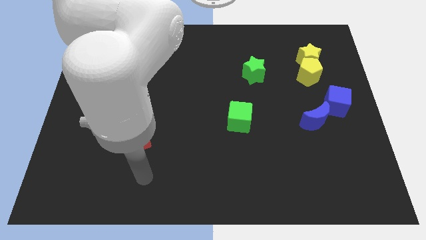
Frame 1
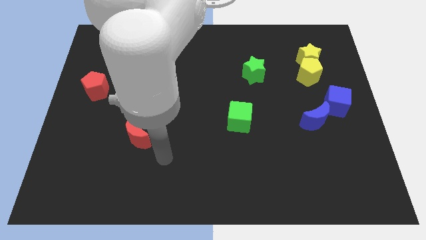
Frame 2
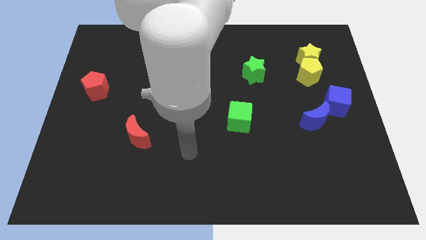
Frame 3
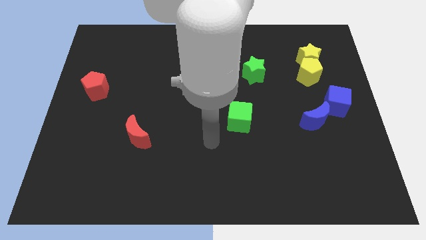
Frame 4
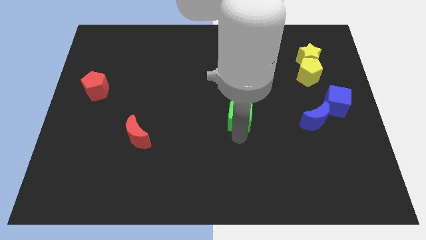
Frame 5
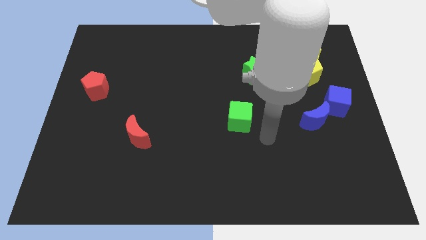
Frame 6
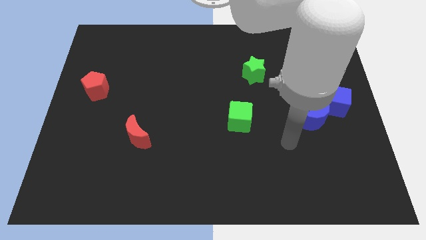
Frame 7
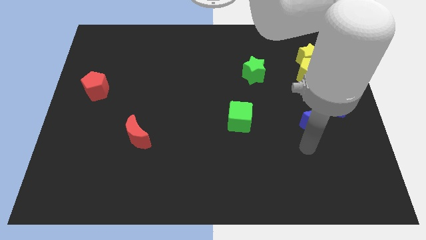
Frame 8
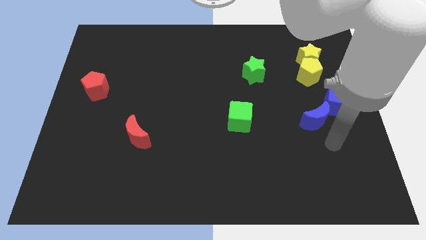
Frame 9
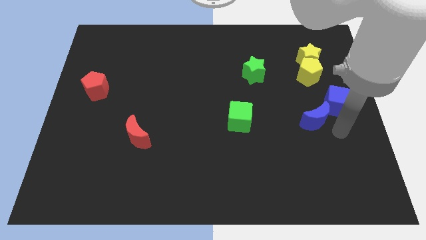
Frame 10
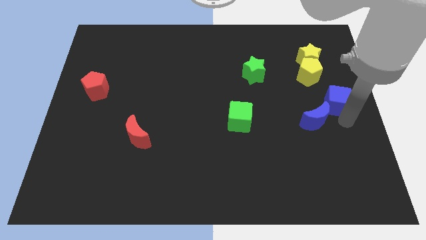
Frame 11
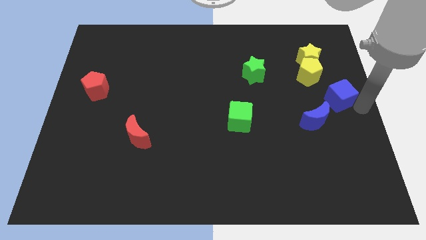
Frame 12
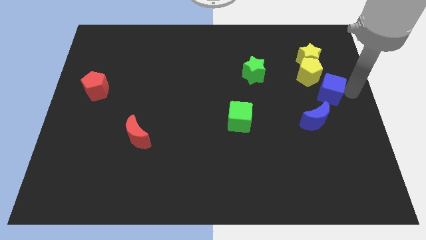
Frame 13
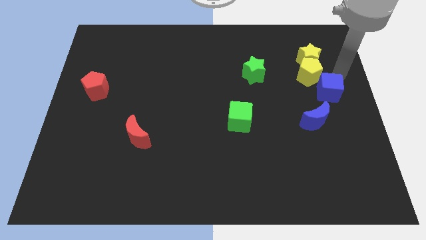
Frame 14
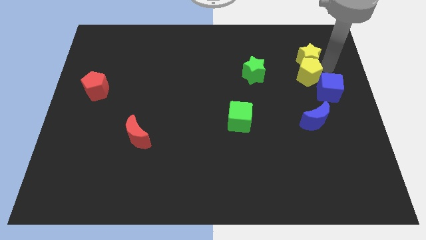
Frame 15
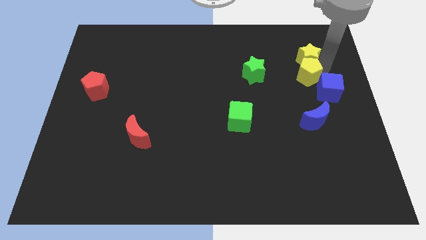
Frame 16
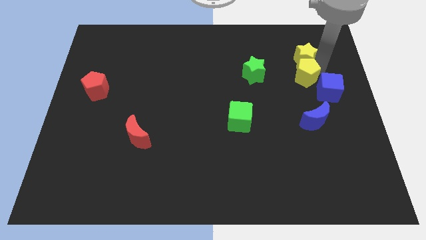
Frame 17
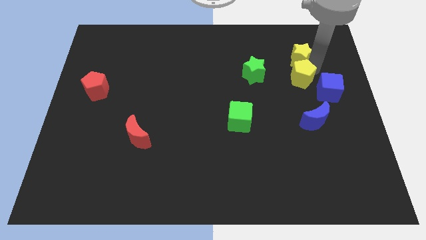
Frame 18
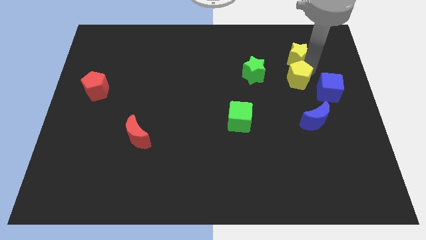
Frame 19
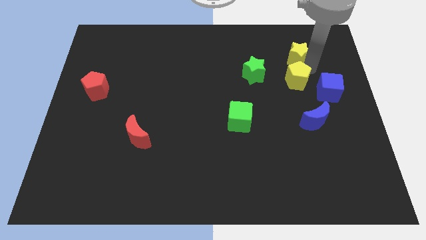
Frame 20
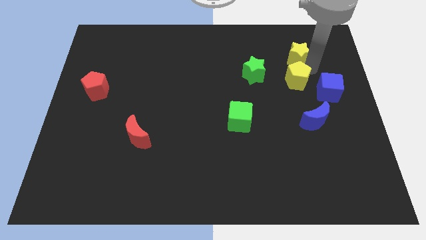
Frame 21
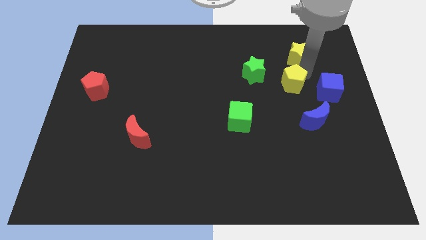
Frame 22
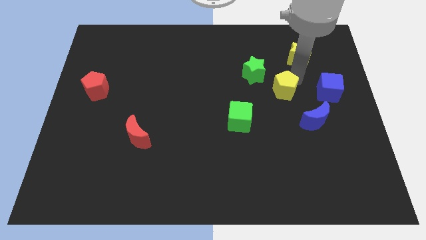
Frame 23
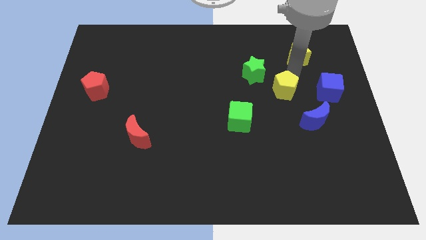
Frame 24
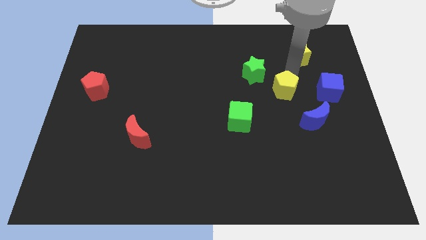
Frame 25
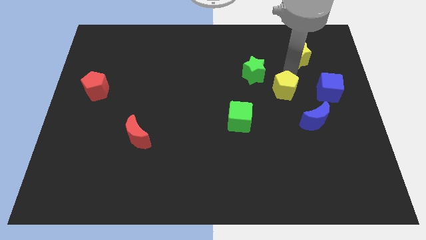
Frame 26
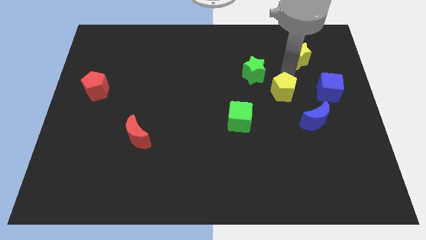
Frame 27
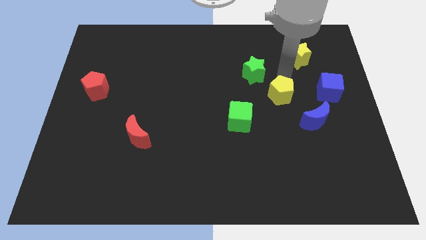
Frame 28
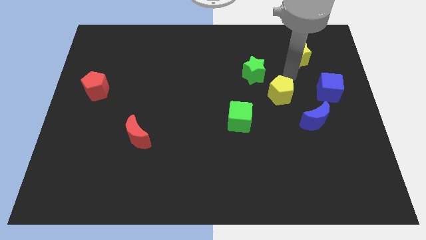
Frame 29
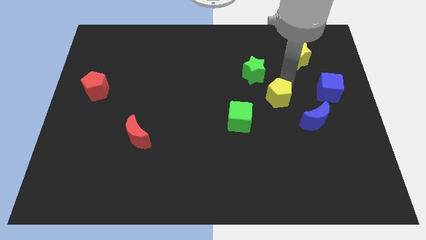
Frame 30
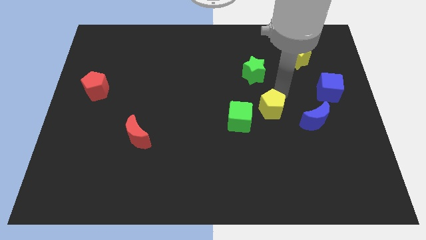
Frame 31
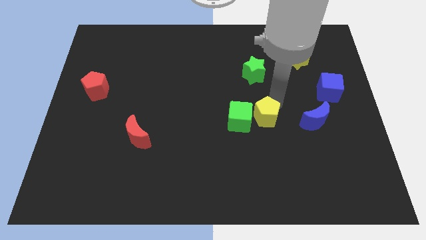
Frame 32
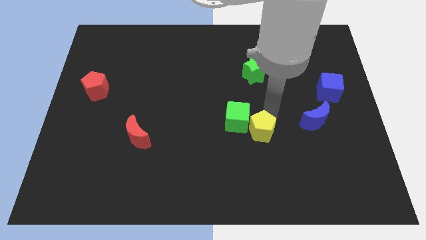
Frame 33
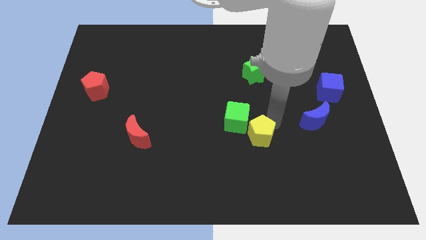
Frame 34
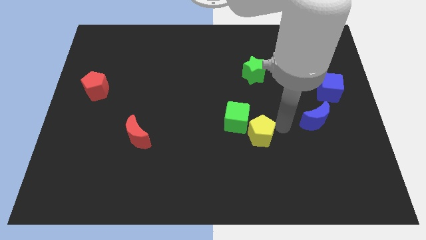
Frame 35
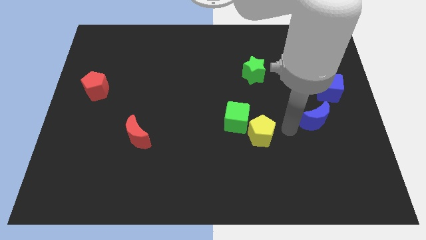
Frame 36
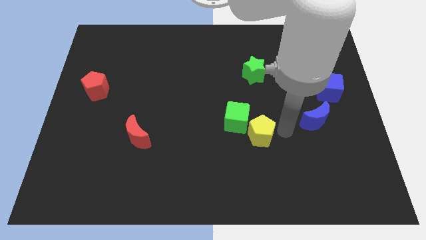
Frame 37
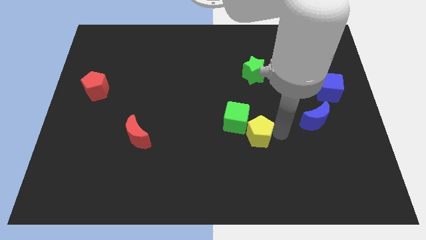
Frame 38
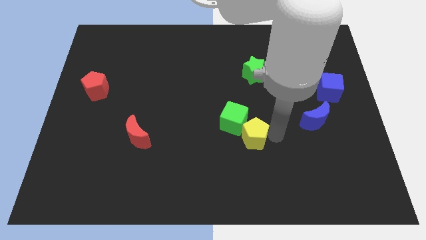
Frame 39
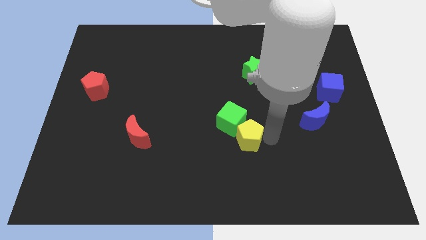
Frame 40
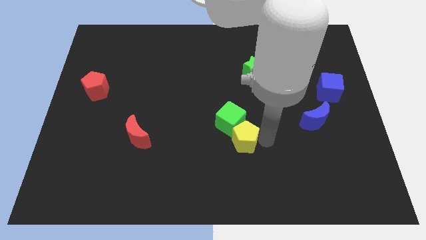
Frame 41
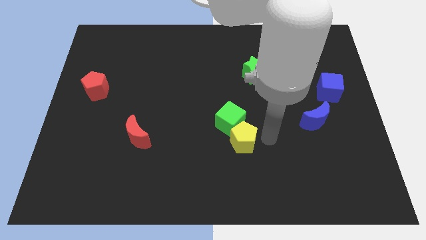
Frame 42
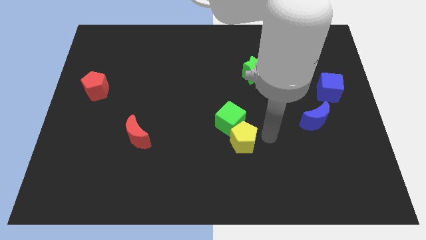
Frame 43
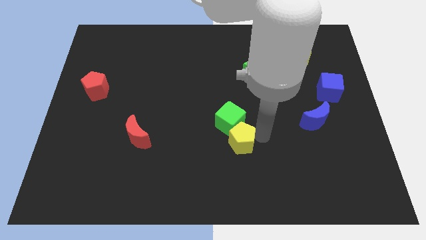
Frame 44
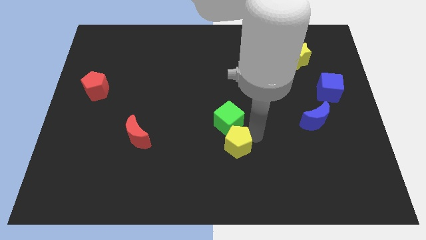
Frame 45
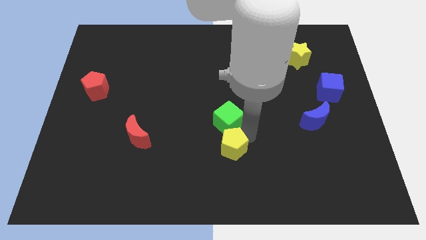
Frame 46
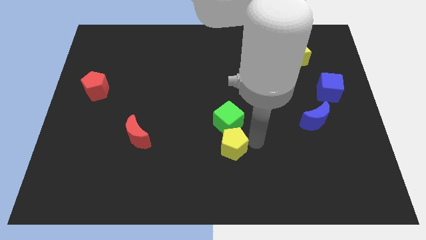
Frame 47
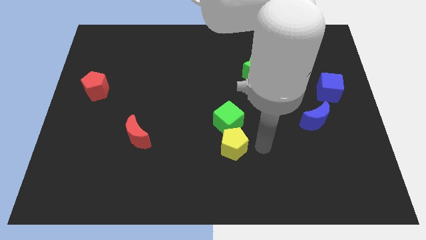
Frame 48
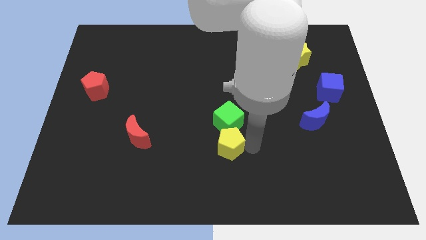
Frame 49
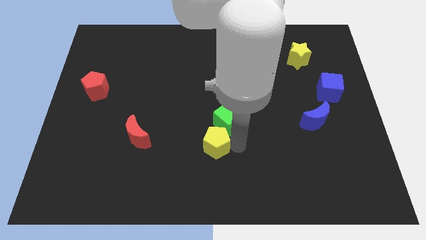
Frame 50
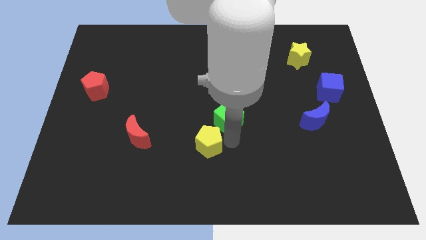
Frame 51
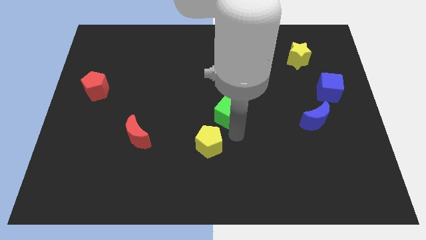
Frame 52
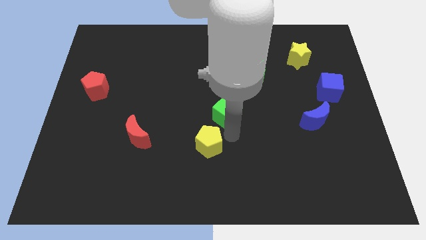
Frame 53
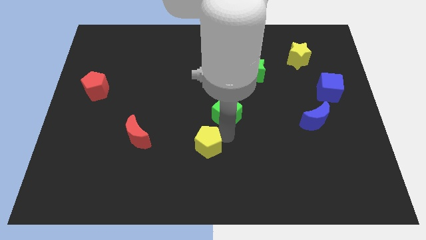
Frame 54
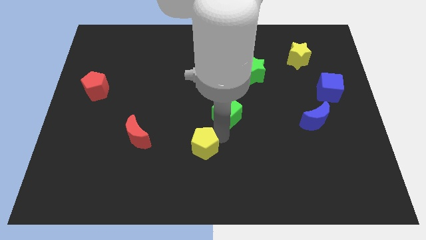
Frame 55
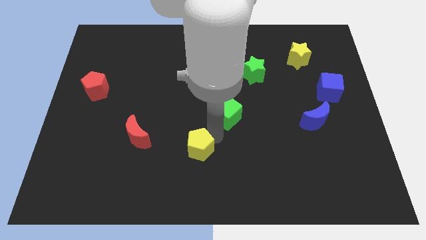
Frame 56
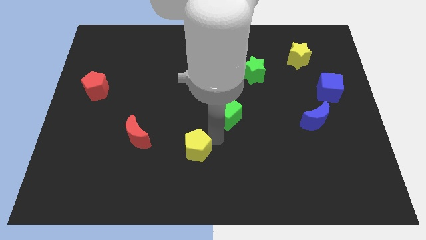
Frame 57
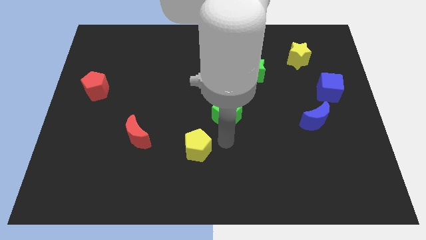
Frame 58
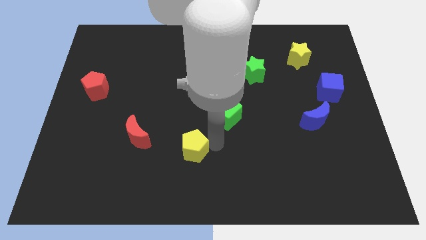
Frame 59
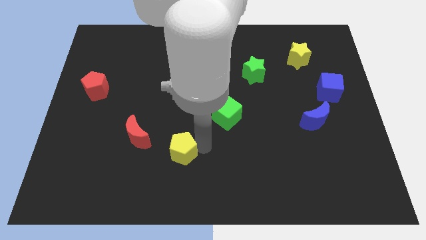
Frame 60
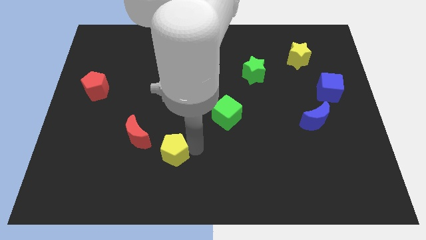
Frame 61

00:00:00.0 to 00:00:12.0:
push the yellow pentagon to the bottom right of the red moon

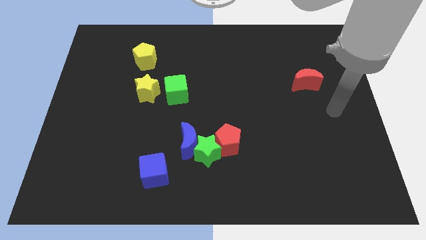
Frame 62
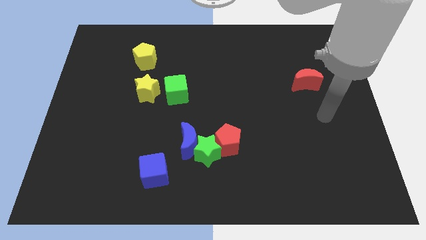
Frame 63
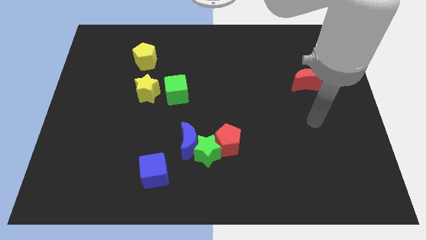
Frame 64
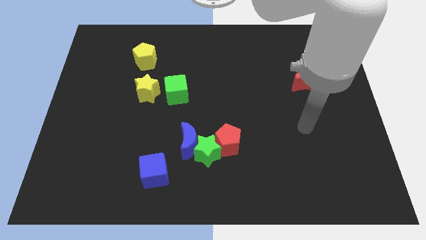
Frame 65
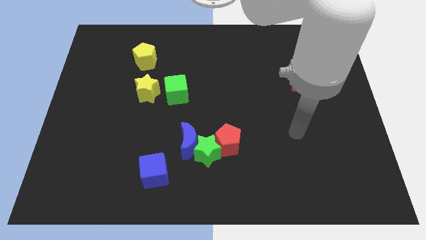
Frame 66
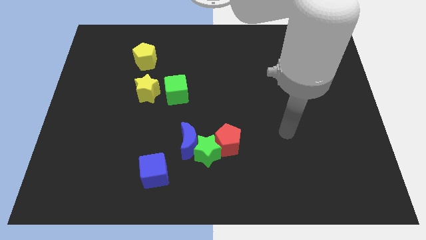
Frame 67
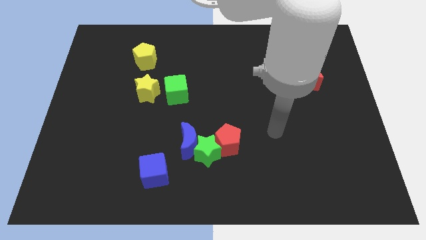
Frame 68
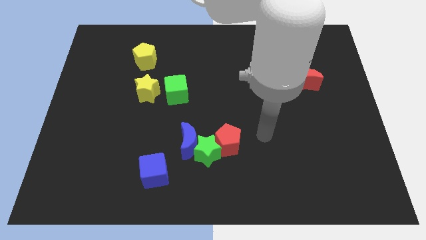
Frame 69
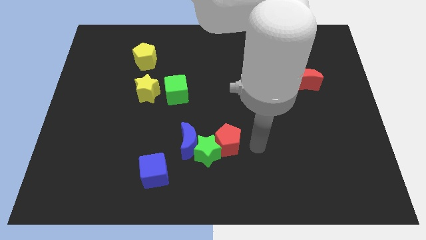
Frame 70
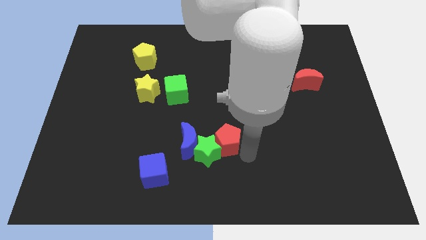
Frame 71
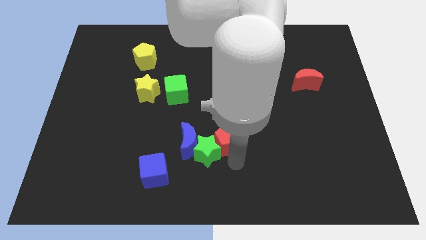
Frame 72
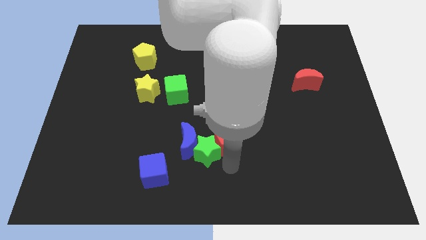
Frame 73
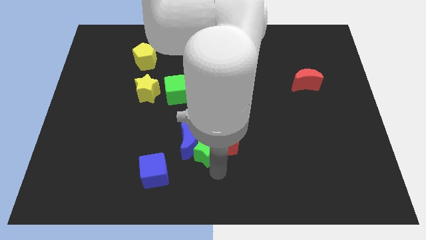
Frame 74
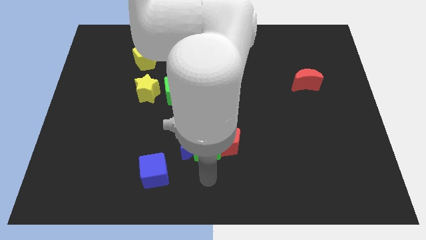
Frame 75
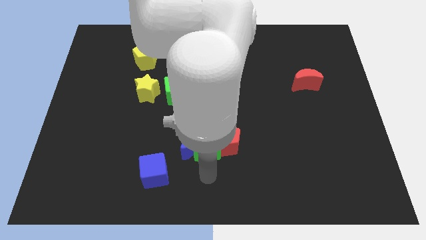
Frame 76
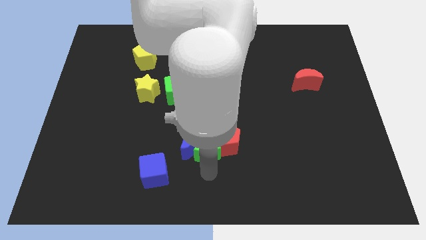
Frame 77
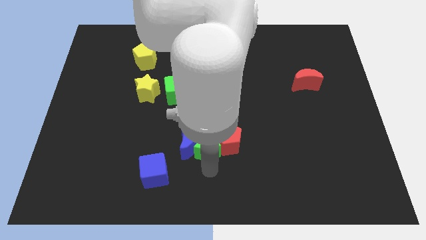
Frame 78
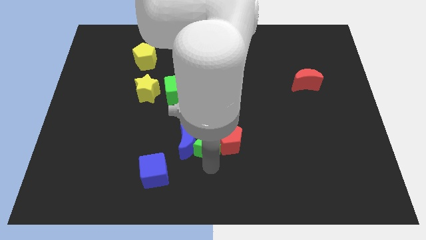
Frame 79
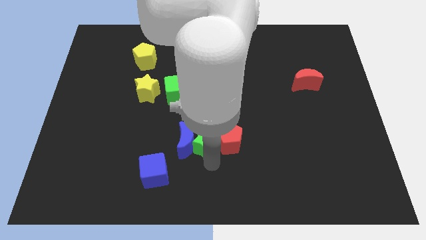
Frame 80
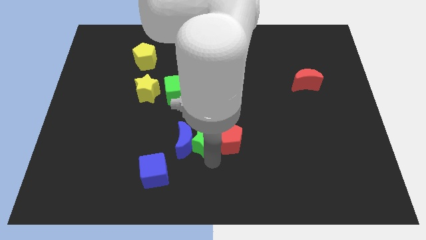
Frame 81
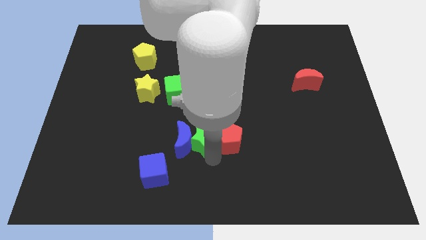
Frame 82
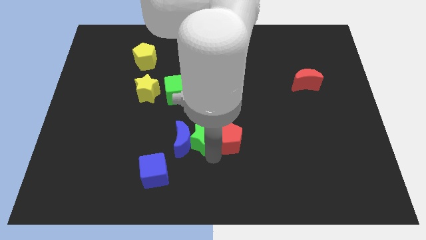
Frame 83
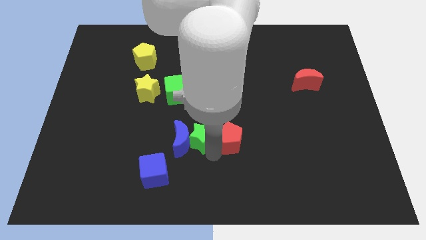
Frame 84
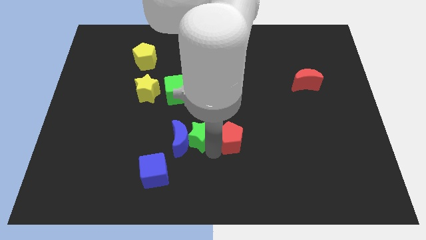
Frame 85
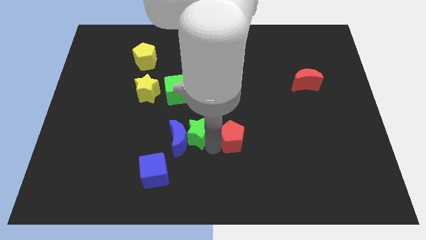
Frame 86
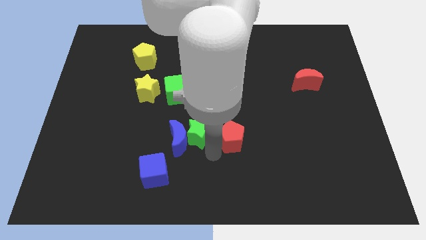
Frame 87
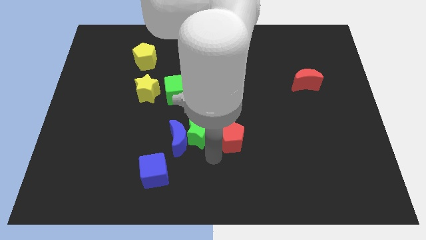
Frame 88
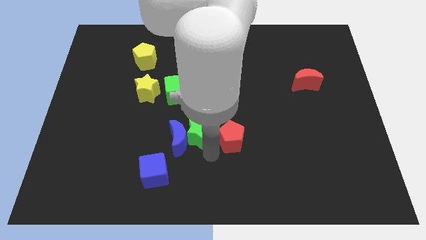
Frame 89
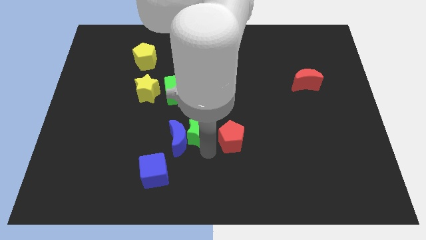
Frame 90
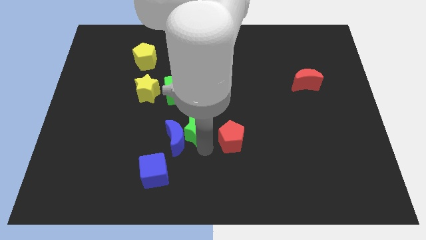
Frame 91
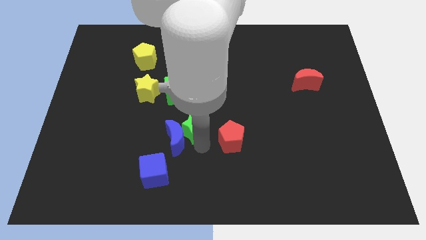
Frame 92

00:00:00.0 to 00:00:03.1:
put the green star to the top side of the blue moon
